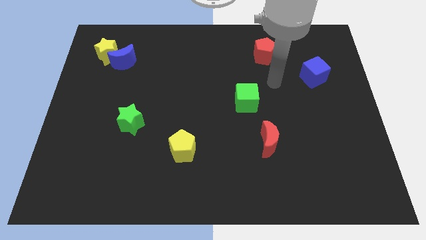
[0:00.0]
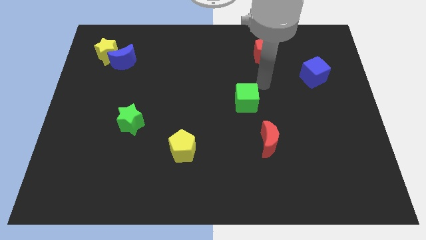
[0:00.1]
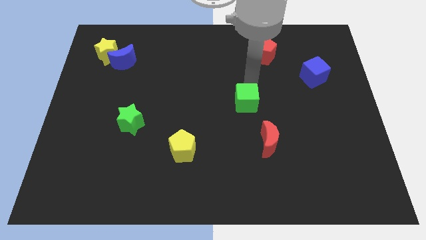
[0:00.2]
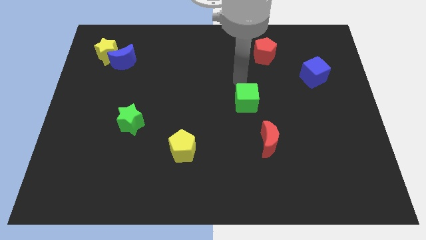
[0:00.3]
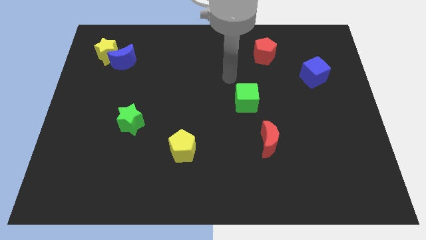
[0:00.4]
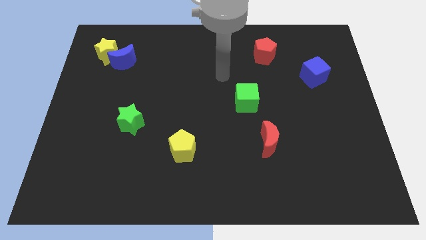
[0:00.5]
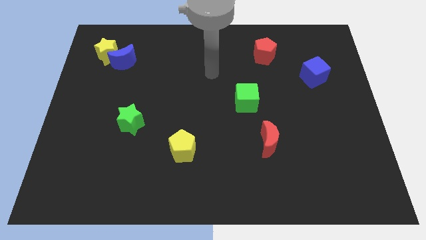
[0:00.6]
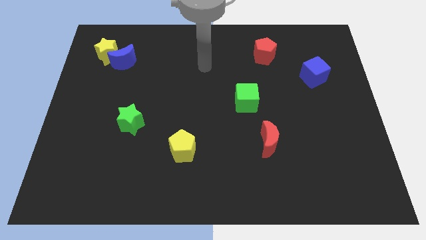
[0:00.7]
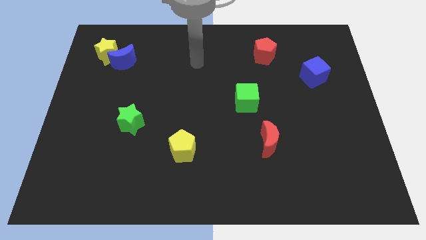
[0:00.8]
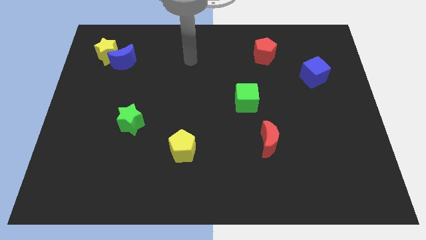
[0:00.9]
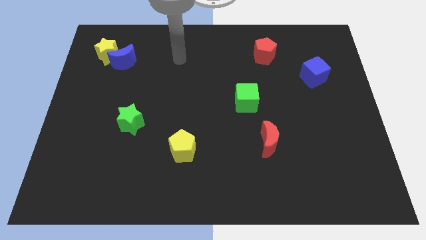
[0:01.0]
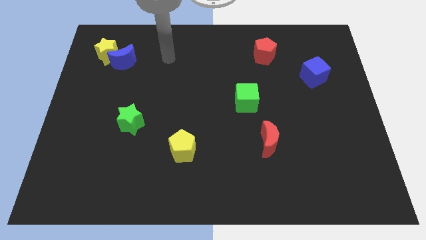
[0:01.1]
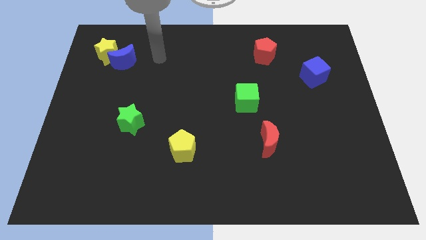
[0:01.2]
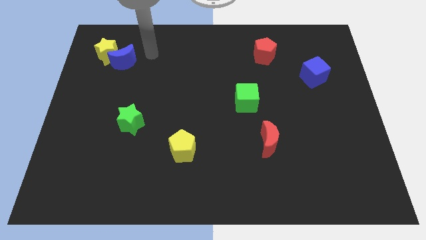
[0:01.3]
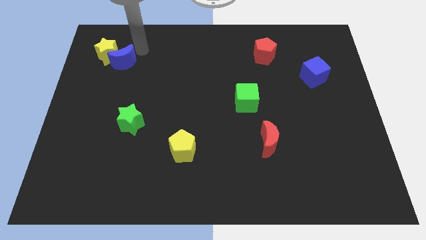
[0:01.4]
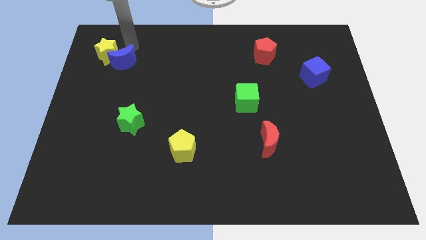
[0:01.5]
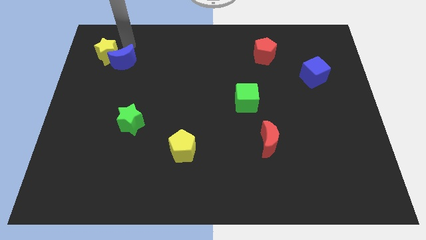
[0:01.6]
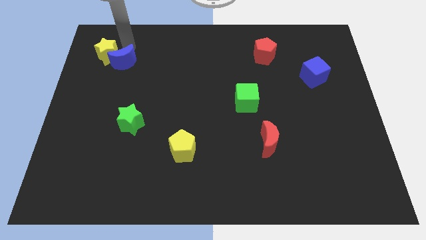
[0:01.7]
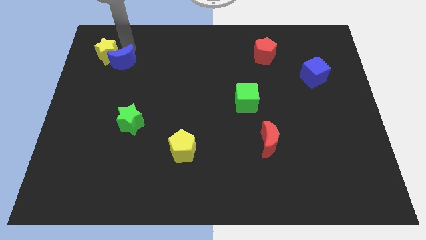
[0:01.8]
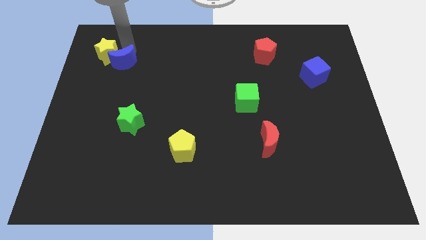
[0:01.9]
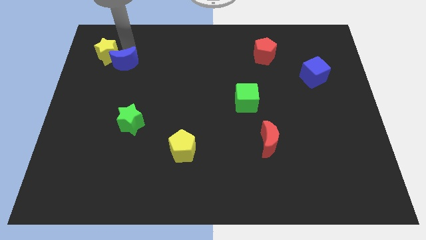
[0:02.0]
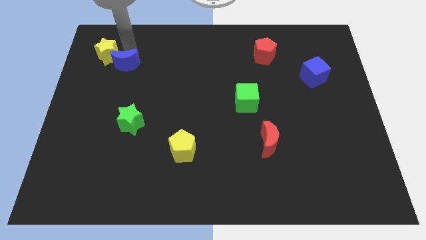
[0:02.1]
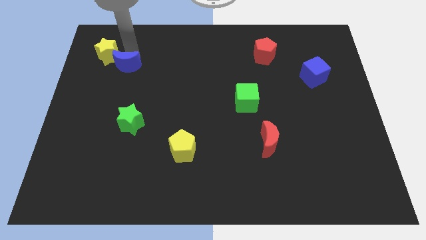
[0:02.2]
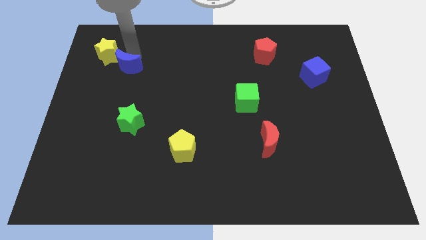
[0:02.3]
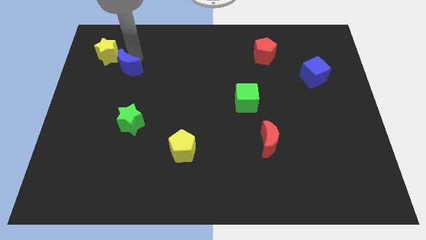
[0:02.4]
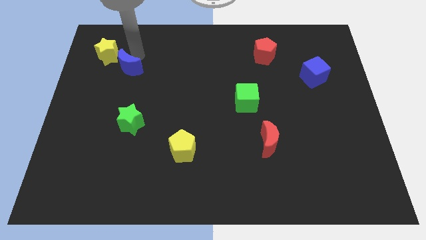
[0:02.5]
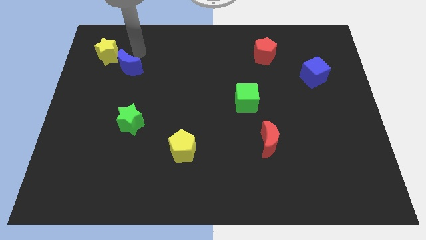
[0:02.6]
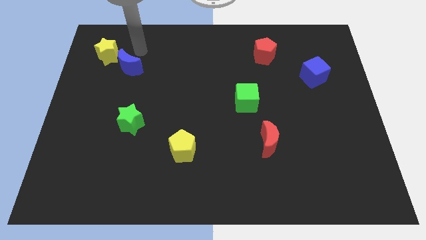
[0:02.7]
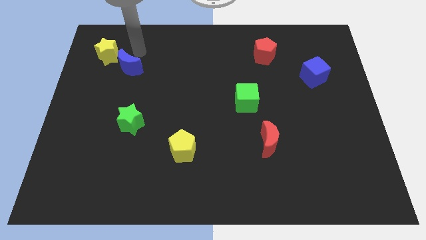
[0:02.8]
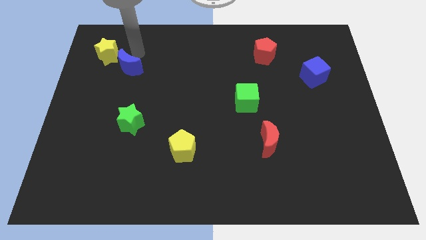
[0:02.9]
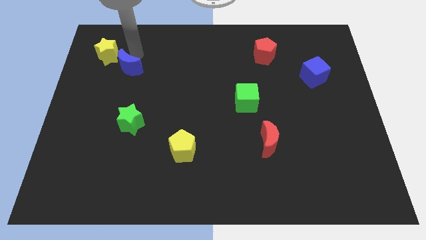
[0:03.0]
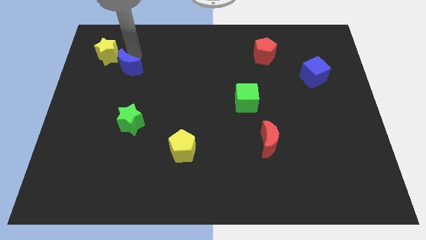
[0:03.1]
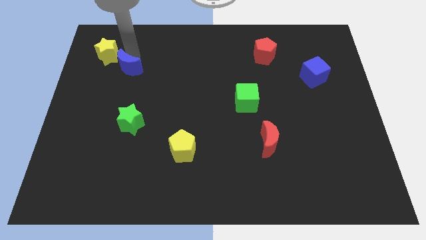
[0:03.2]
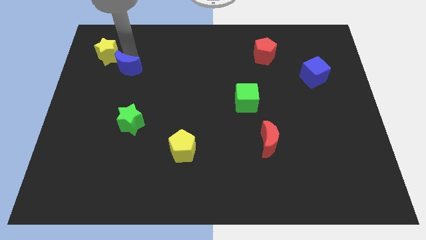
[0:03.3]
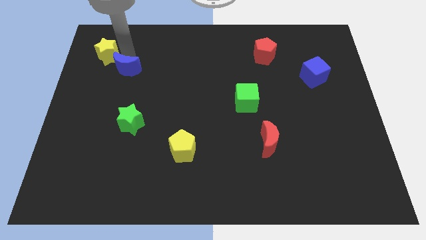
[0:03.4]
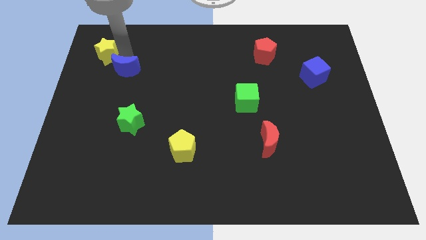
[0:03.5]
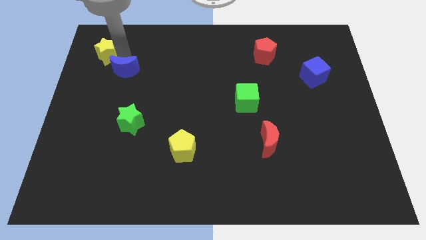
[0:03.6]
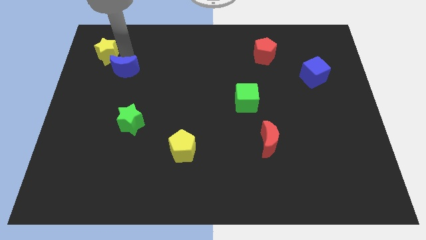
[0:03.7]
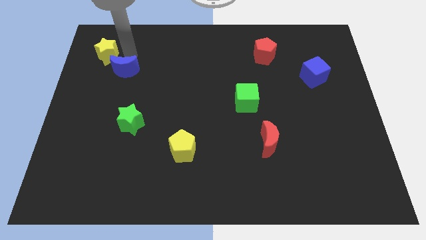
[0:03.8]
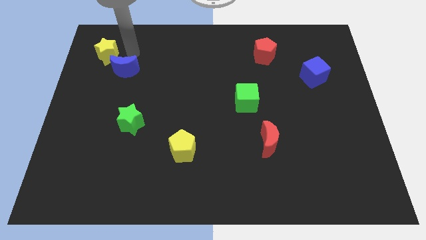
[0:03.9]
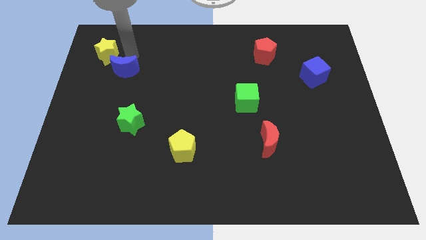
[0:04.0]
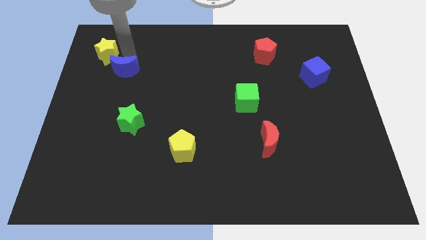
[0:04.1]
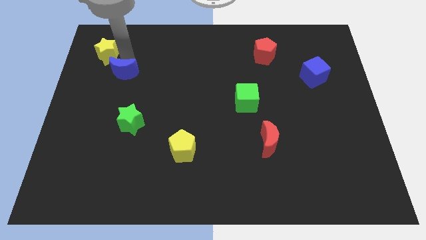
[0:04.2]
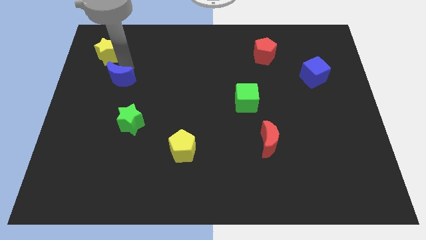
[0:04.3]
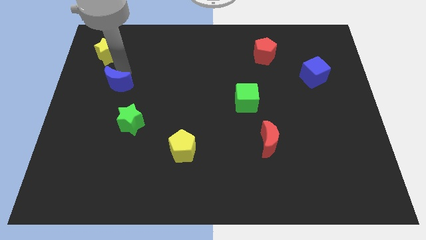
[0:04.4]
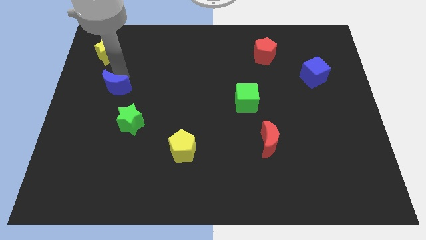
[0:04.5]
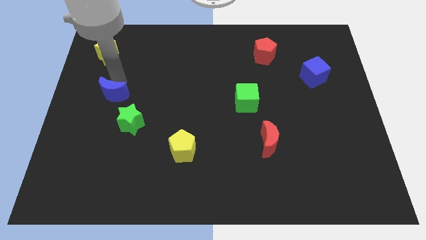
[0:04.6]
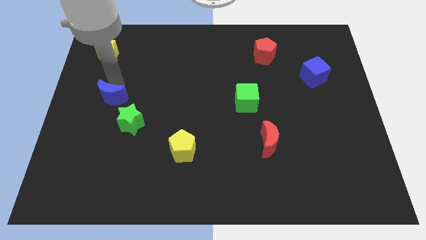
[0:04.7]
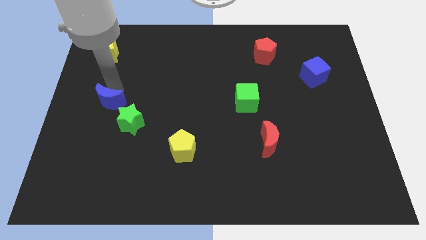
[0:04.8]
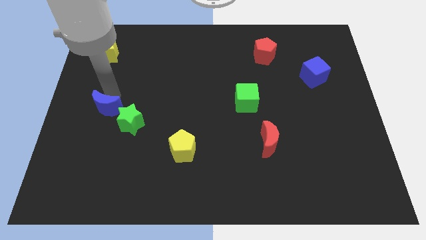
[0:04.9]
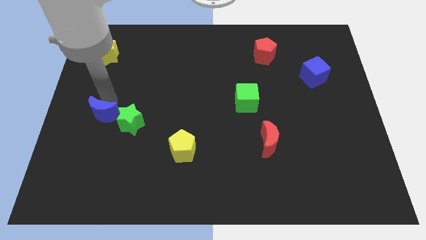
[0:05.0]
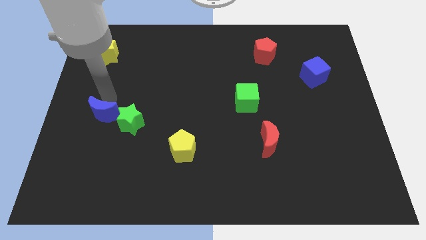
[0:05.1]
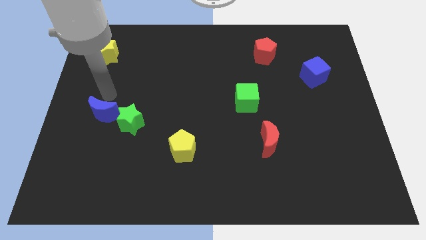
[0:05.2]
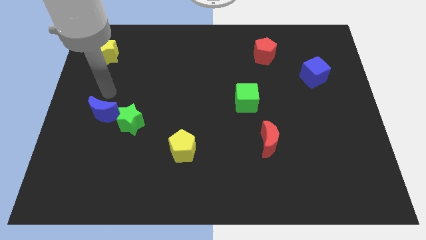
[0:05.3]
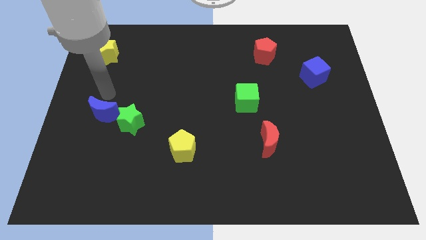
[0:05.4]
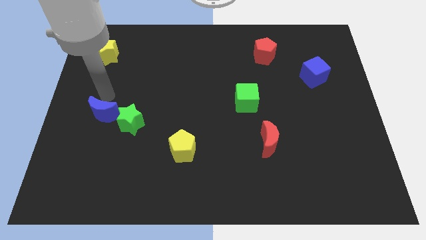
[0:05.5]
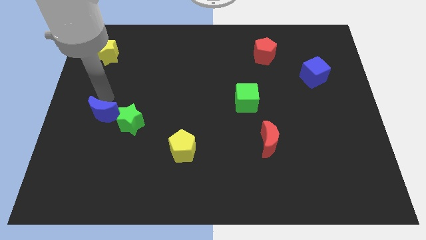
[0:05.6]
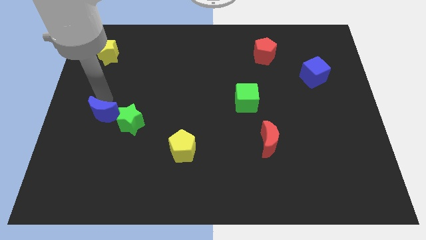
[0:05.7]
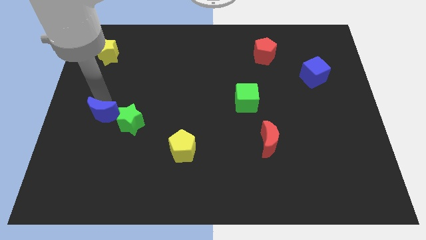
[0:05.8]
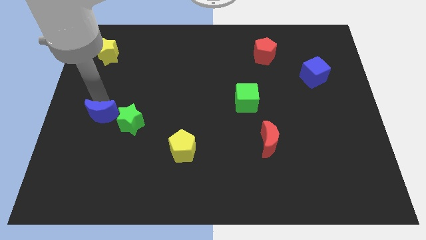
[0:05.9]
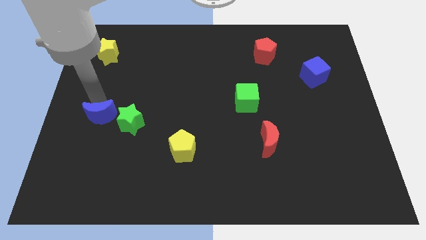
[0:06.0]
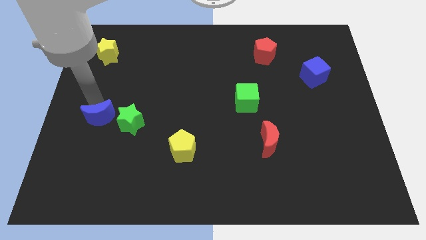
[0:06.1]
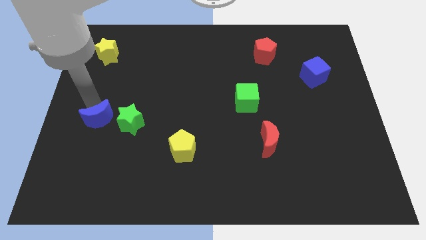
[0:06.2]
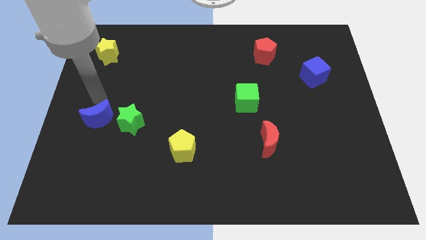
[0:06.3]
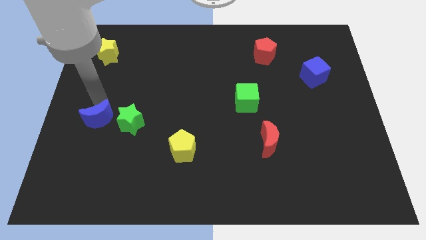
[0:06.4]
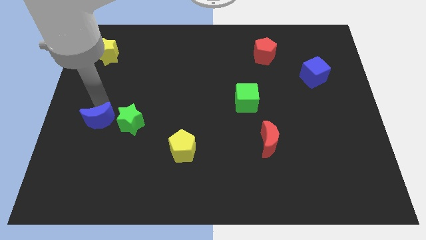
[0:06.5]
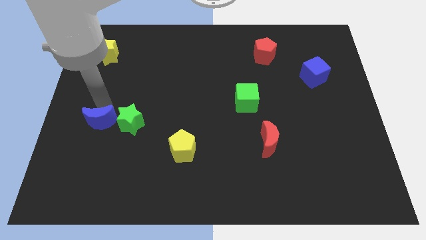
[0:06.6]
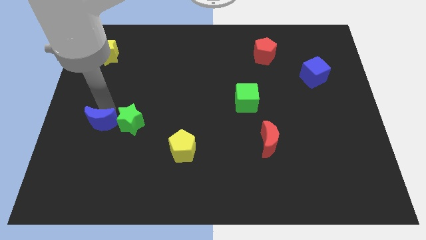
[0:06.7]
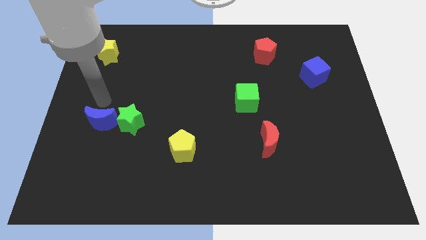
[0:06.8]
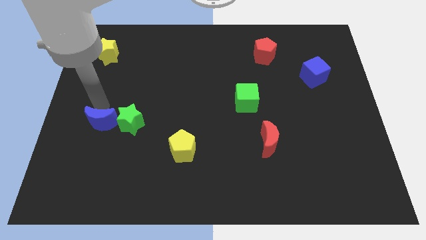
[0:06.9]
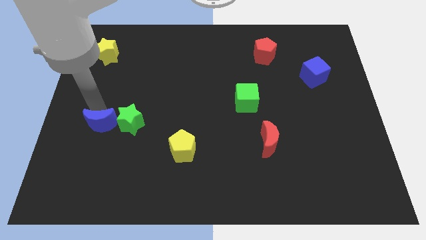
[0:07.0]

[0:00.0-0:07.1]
move the blue moon downwards

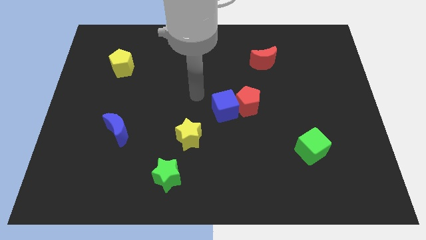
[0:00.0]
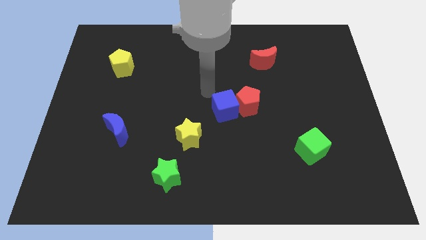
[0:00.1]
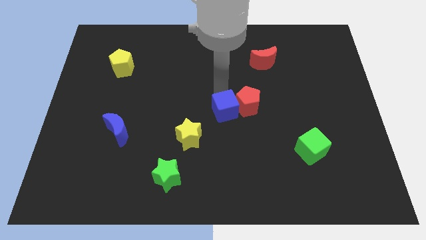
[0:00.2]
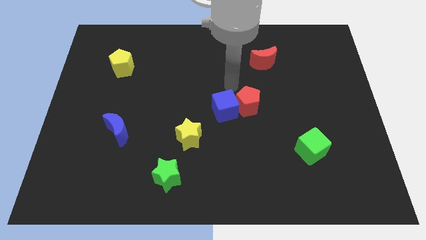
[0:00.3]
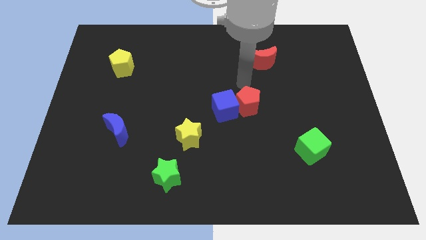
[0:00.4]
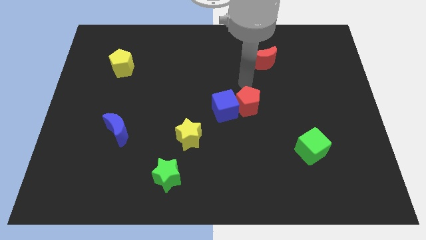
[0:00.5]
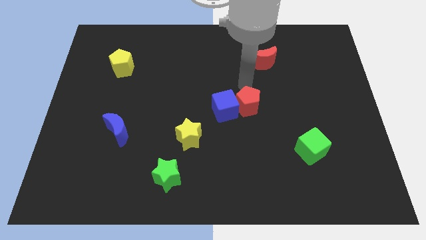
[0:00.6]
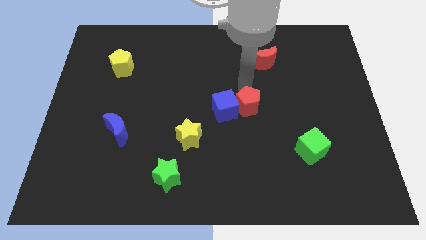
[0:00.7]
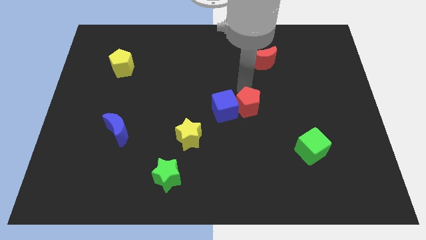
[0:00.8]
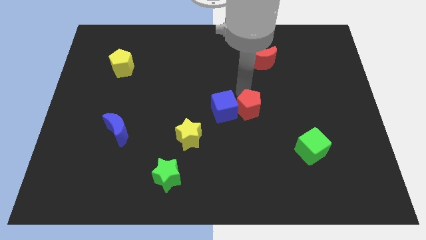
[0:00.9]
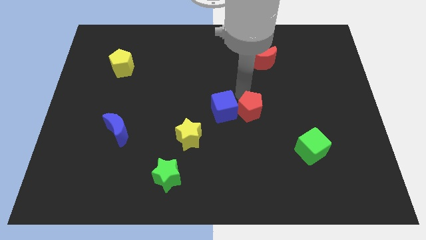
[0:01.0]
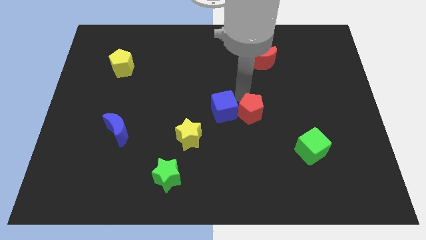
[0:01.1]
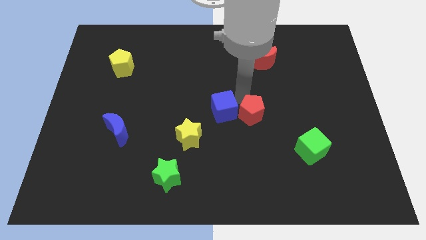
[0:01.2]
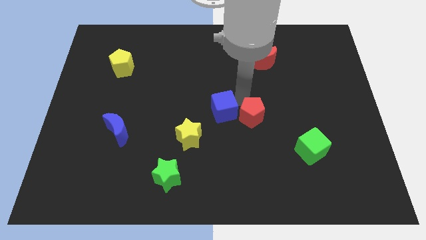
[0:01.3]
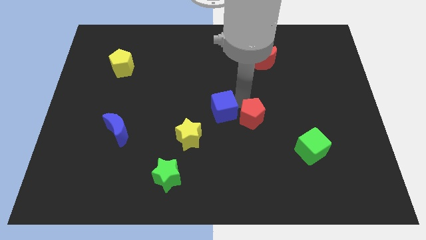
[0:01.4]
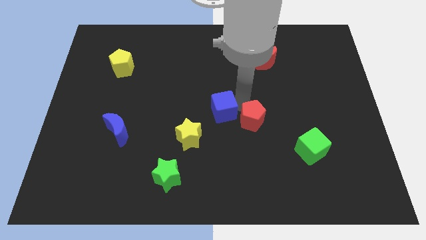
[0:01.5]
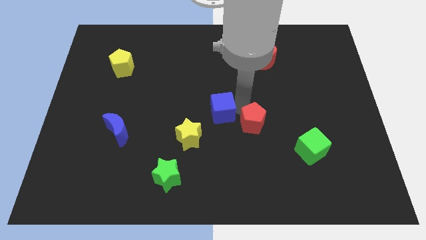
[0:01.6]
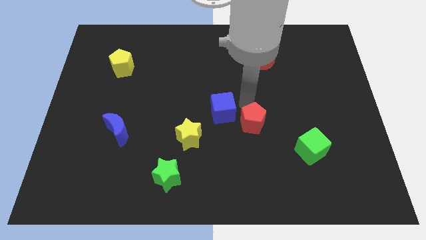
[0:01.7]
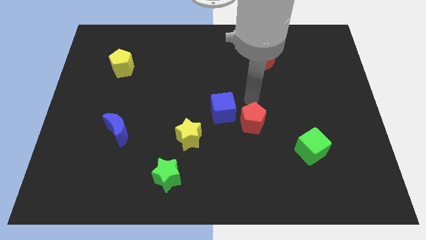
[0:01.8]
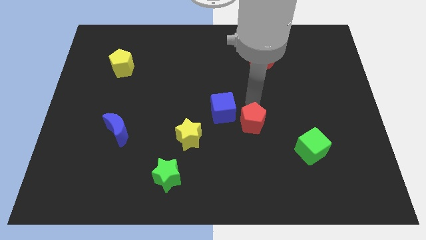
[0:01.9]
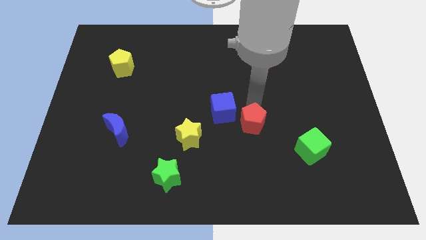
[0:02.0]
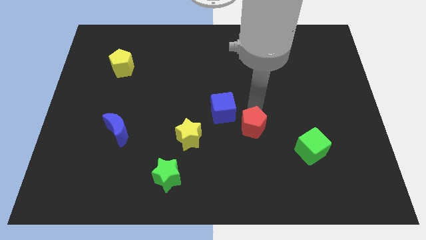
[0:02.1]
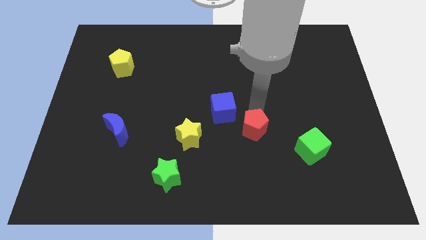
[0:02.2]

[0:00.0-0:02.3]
slightly push the red pentagon downwards
